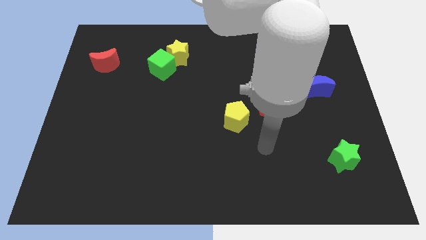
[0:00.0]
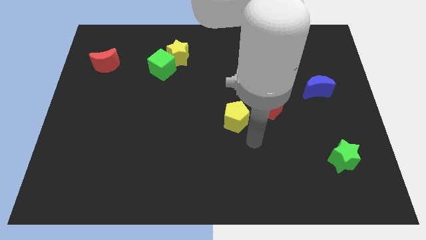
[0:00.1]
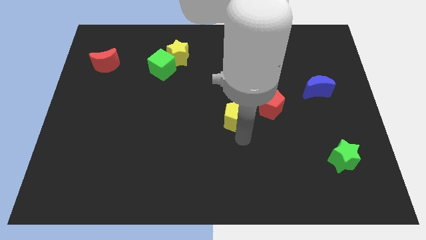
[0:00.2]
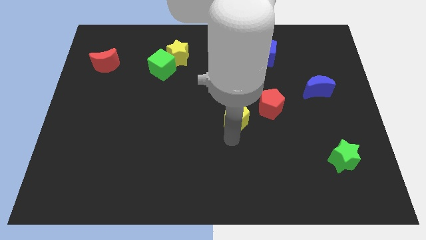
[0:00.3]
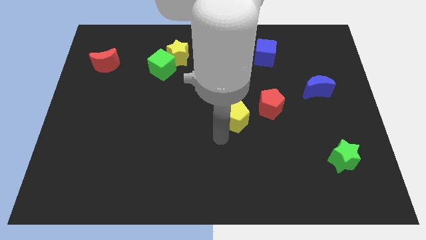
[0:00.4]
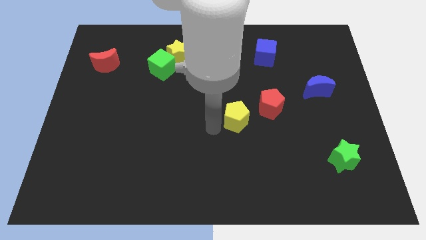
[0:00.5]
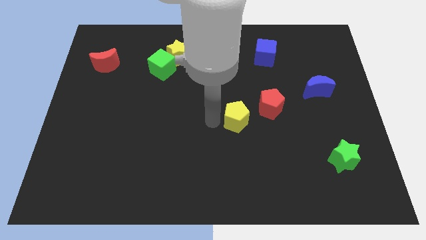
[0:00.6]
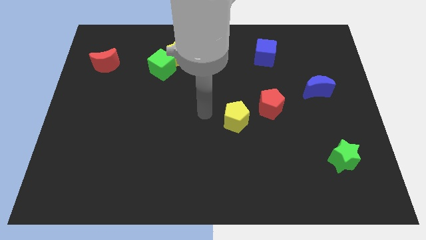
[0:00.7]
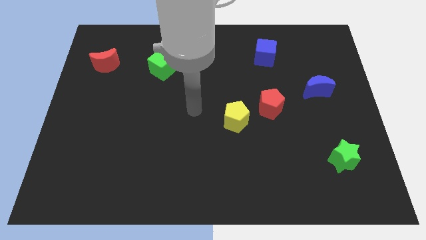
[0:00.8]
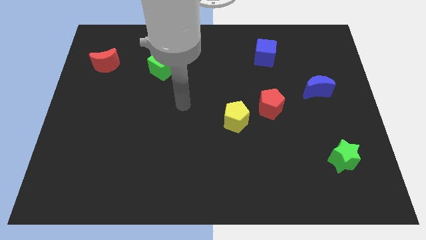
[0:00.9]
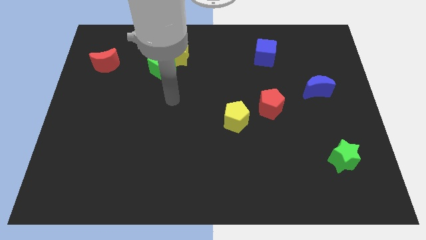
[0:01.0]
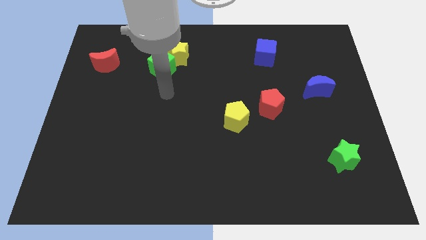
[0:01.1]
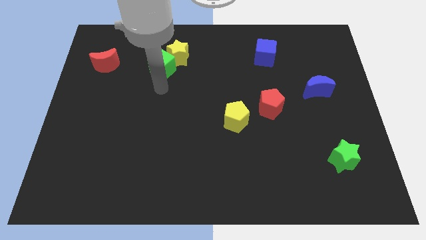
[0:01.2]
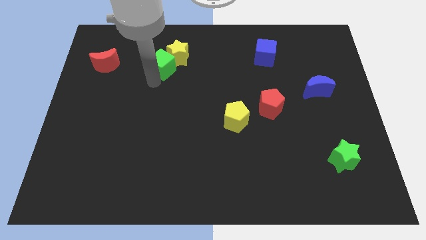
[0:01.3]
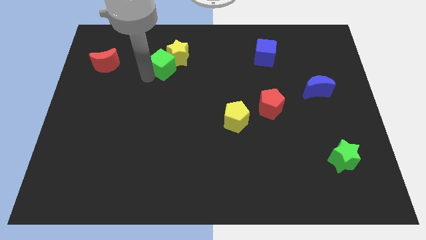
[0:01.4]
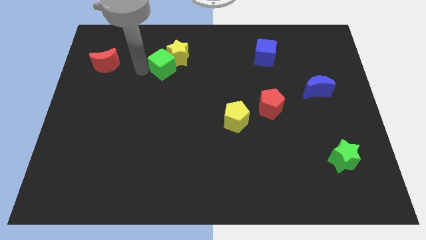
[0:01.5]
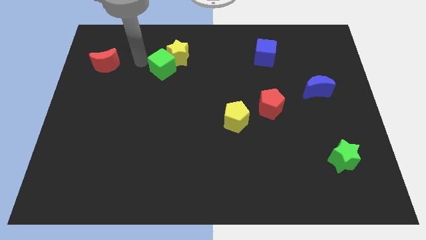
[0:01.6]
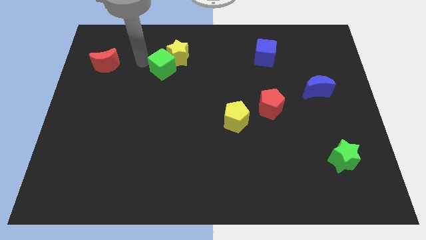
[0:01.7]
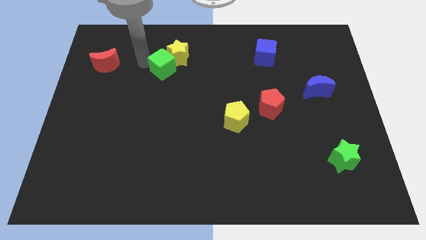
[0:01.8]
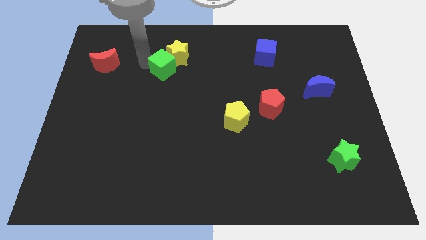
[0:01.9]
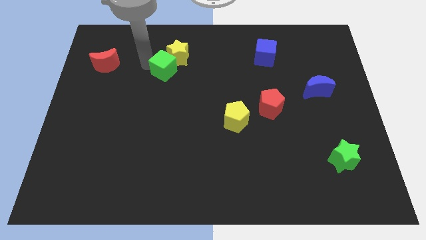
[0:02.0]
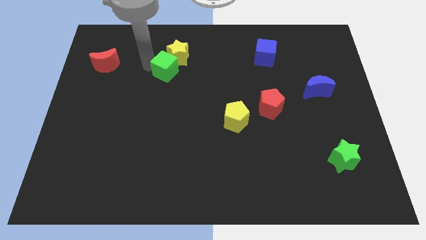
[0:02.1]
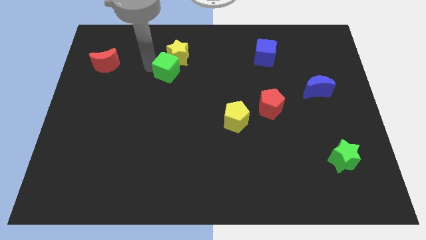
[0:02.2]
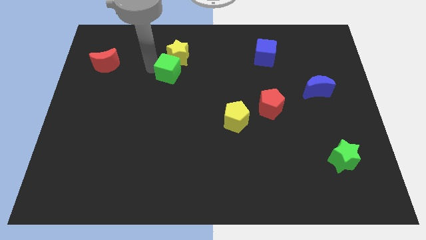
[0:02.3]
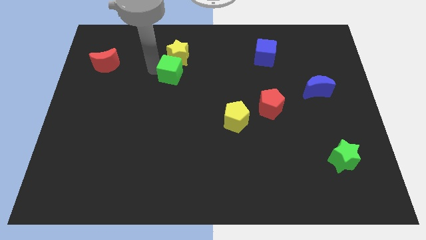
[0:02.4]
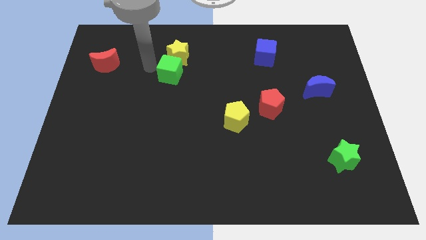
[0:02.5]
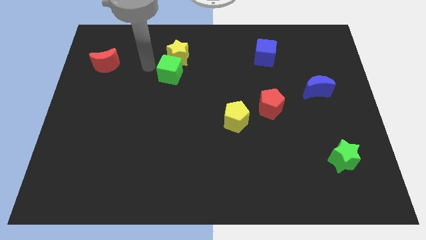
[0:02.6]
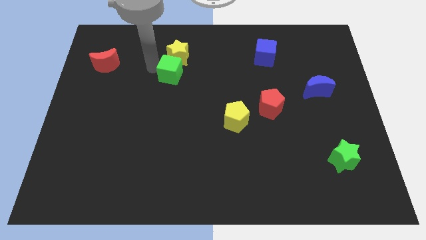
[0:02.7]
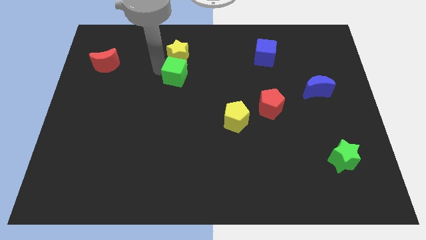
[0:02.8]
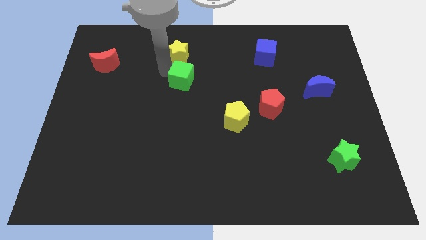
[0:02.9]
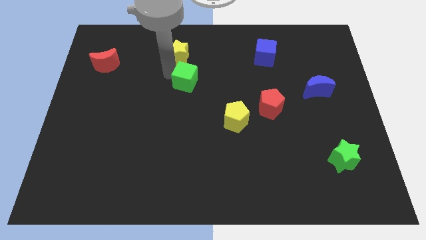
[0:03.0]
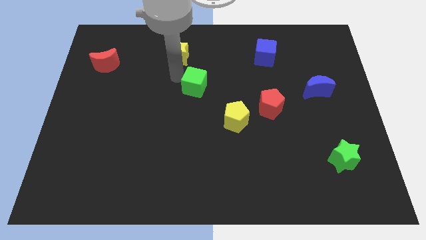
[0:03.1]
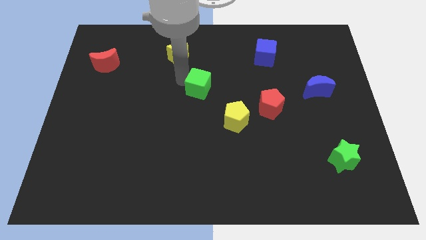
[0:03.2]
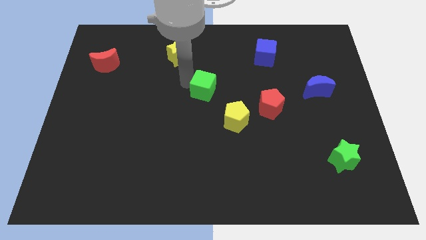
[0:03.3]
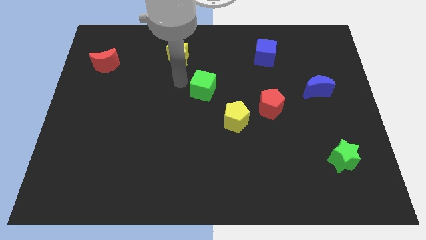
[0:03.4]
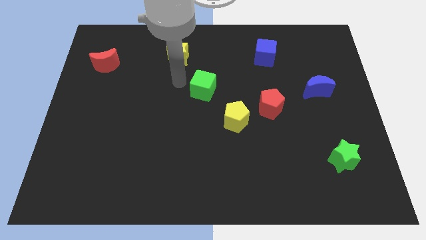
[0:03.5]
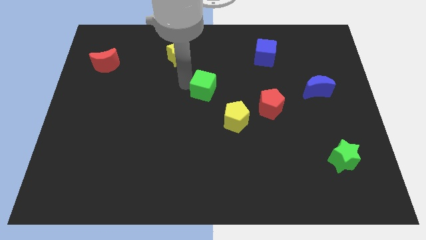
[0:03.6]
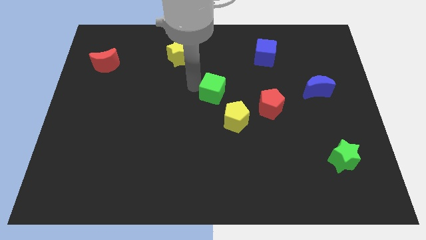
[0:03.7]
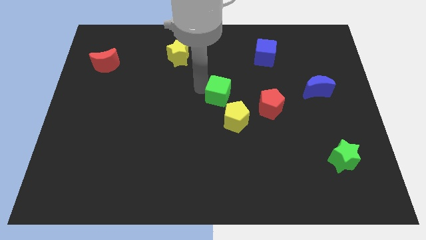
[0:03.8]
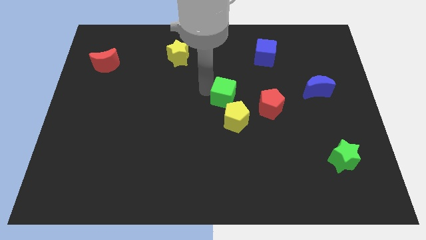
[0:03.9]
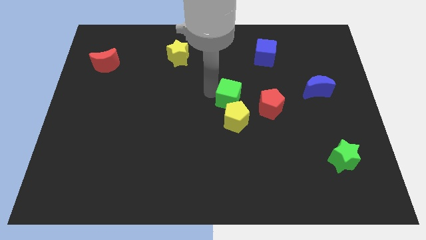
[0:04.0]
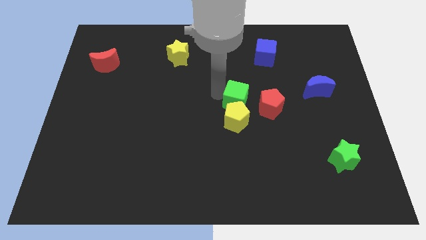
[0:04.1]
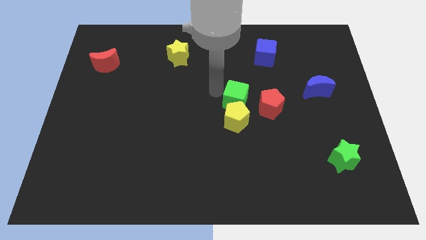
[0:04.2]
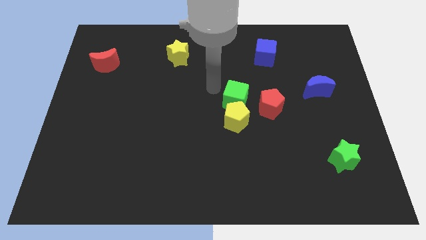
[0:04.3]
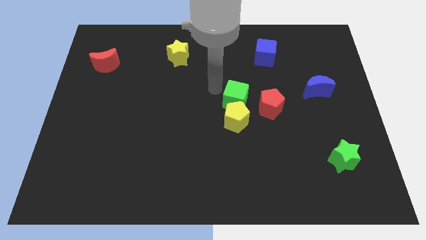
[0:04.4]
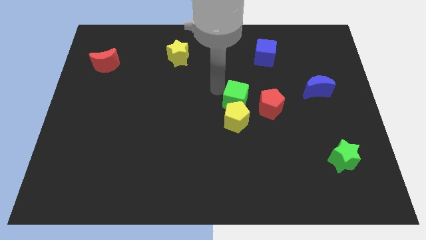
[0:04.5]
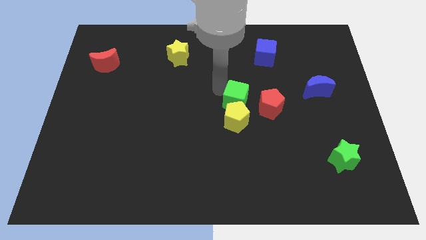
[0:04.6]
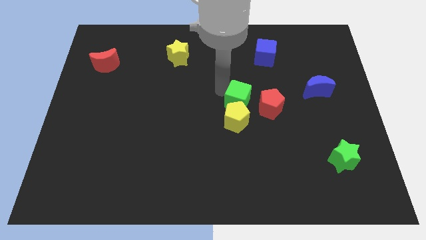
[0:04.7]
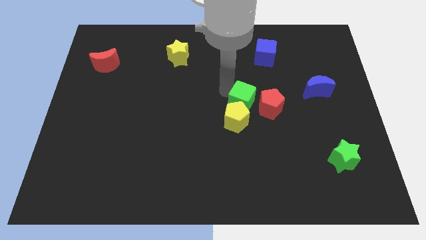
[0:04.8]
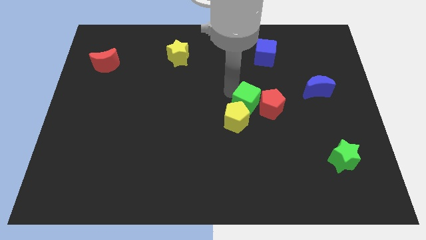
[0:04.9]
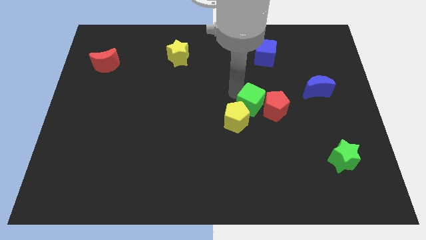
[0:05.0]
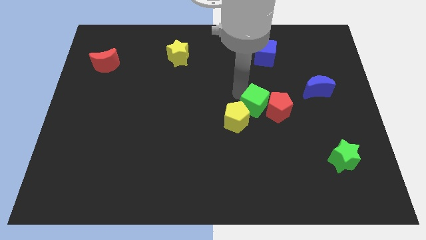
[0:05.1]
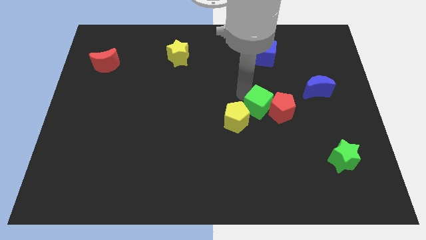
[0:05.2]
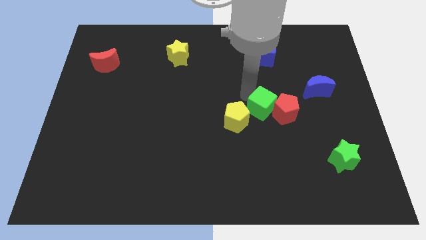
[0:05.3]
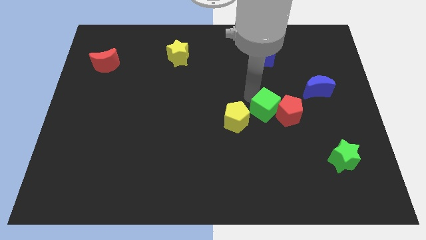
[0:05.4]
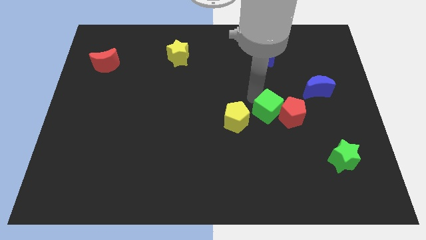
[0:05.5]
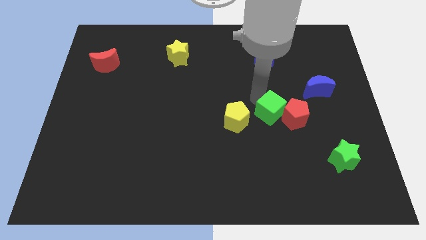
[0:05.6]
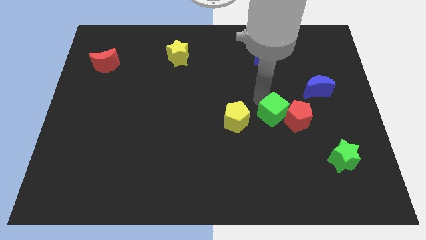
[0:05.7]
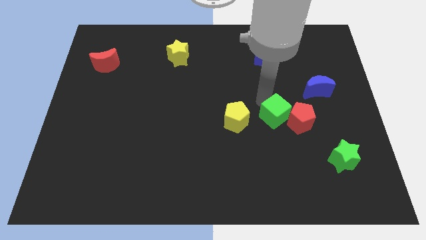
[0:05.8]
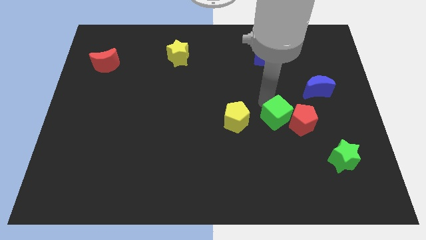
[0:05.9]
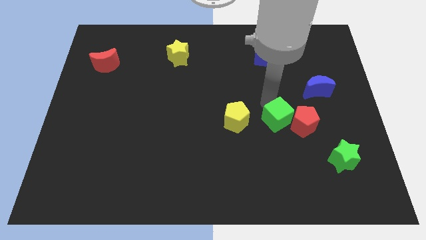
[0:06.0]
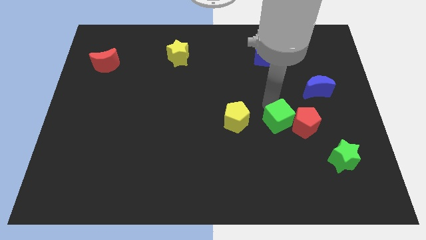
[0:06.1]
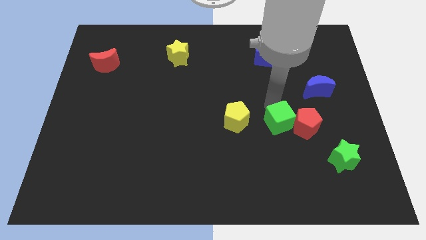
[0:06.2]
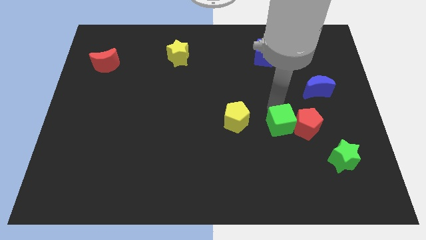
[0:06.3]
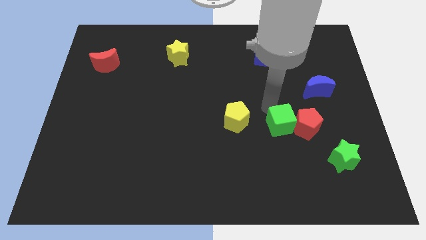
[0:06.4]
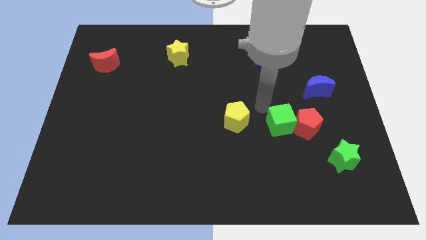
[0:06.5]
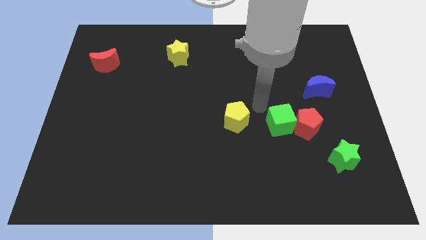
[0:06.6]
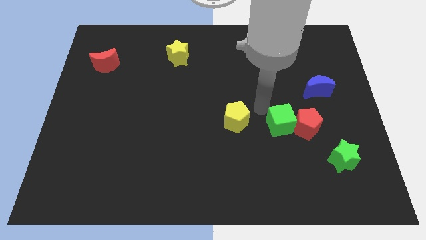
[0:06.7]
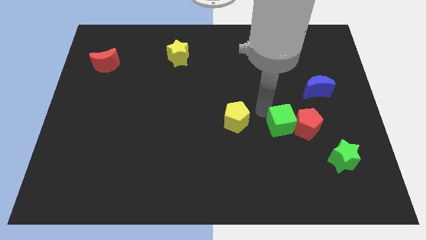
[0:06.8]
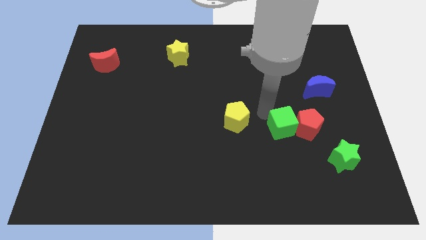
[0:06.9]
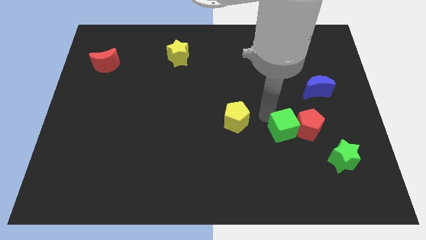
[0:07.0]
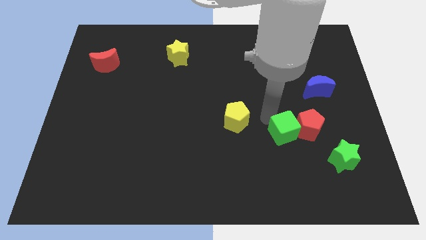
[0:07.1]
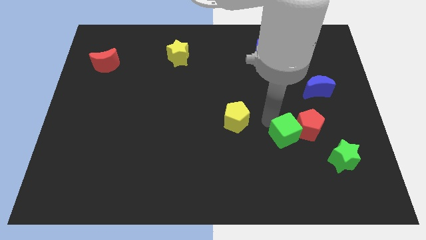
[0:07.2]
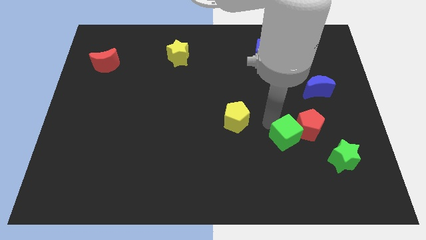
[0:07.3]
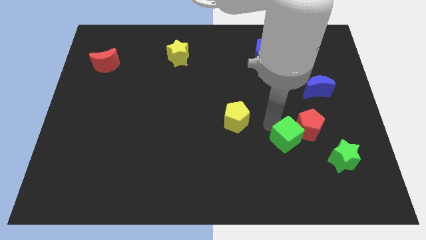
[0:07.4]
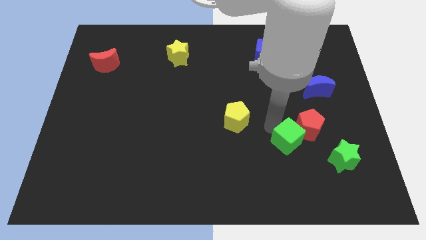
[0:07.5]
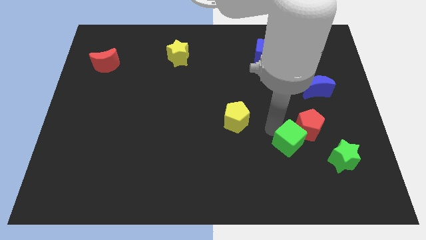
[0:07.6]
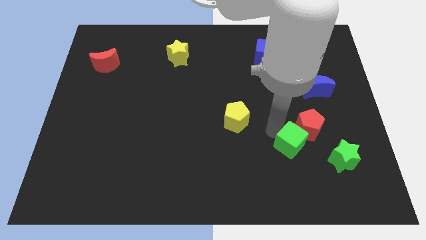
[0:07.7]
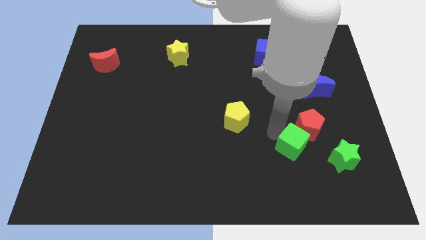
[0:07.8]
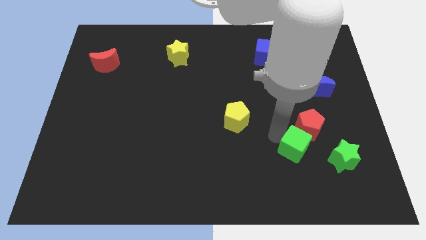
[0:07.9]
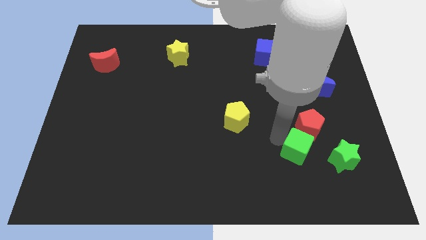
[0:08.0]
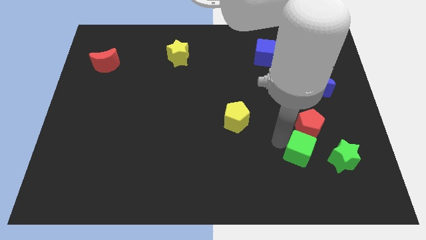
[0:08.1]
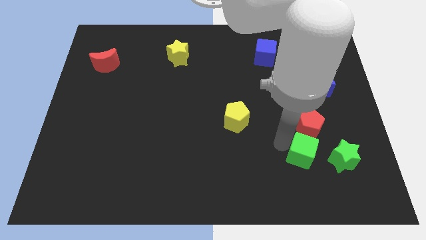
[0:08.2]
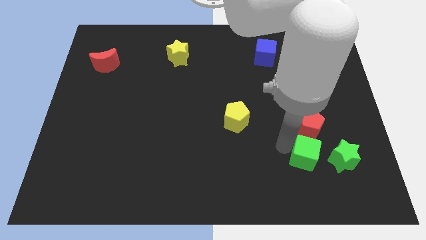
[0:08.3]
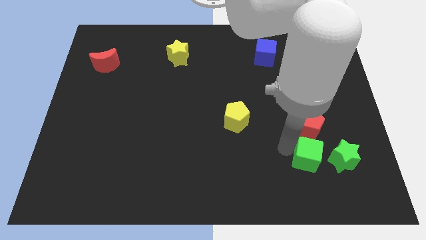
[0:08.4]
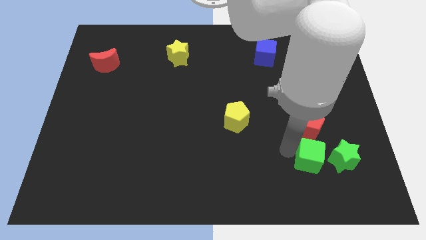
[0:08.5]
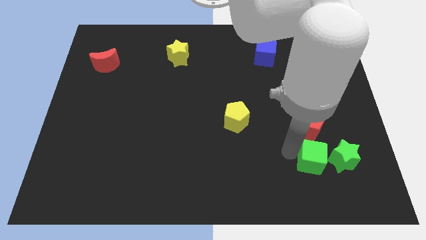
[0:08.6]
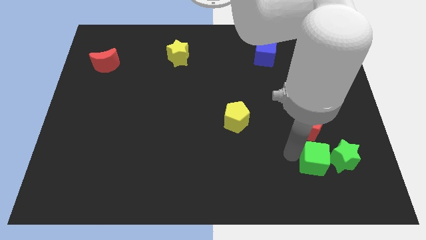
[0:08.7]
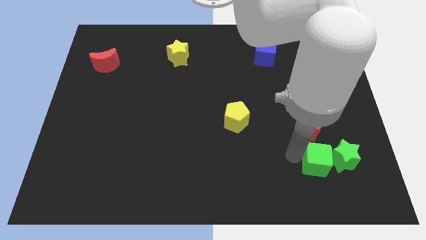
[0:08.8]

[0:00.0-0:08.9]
move the green cube close to the green star
